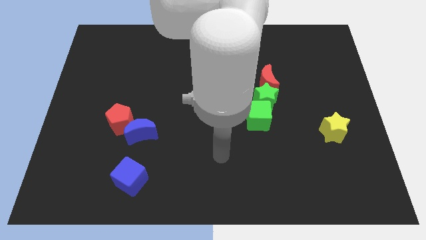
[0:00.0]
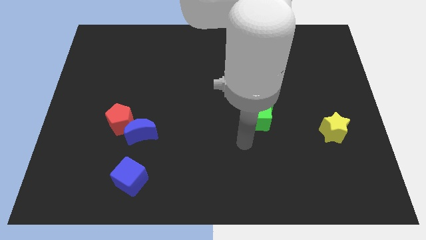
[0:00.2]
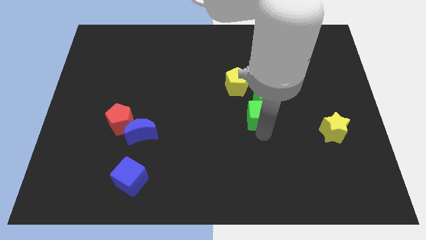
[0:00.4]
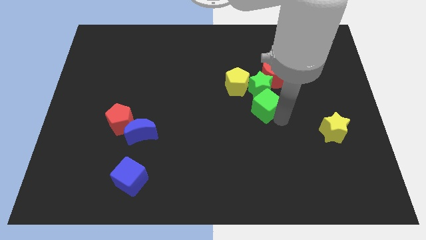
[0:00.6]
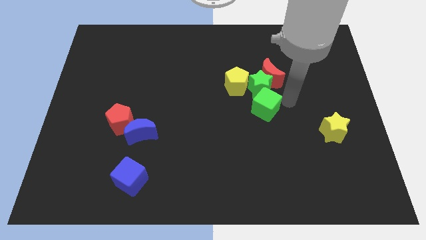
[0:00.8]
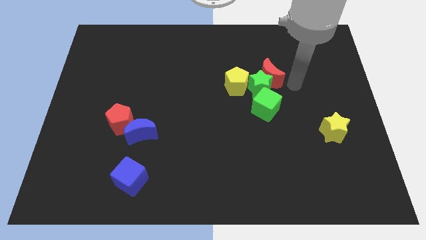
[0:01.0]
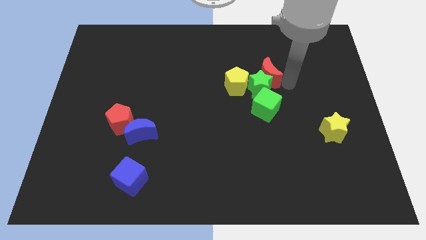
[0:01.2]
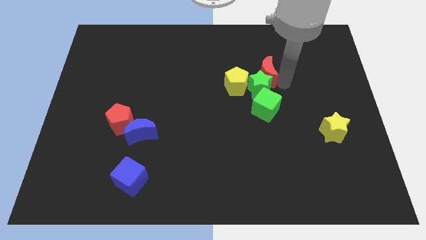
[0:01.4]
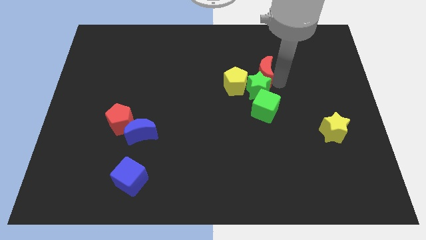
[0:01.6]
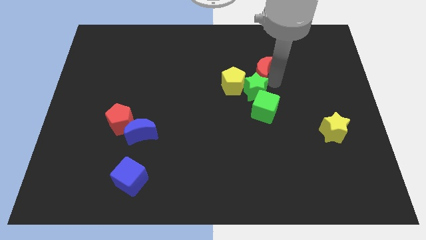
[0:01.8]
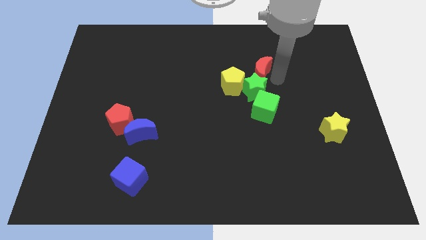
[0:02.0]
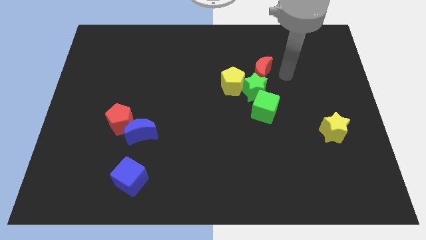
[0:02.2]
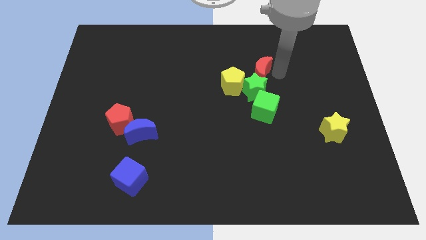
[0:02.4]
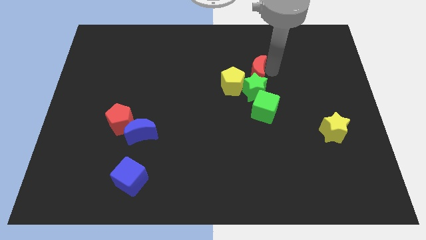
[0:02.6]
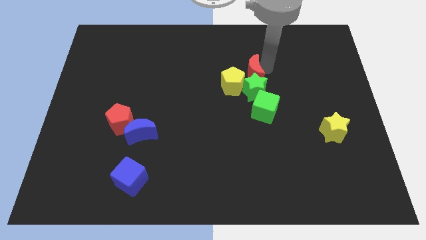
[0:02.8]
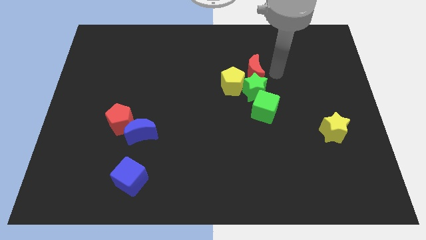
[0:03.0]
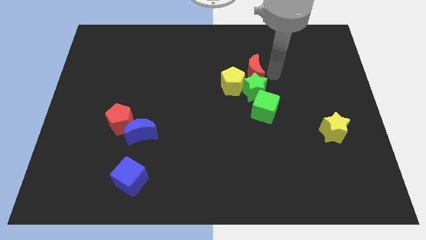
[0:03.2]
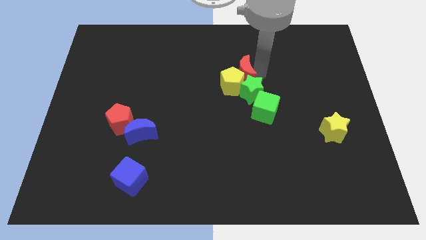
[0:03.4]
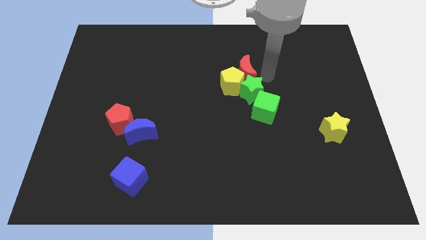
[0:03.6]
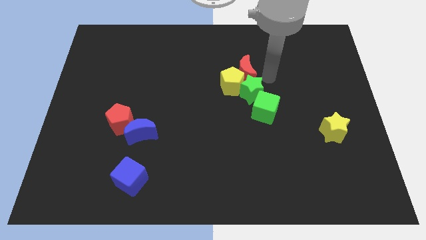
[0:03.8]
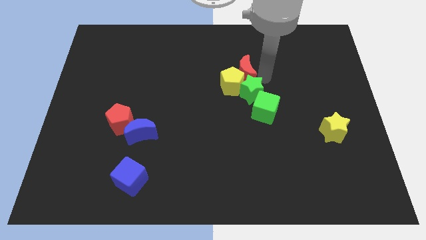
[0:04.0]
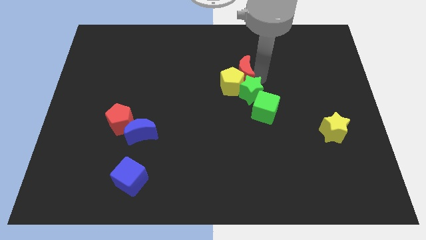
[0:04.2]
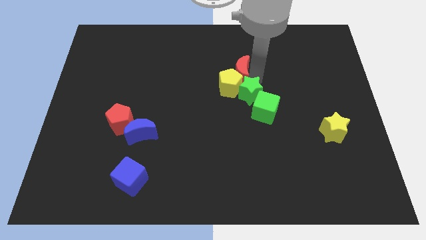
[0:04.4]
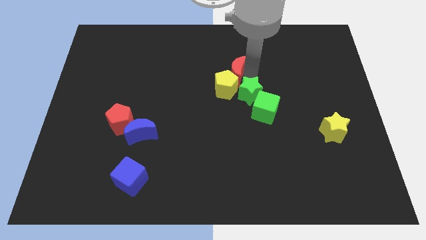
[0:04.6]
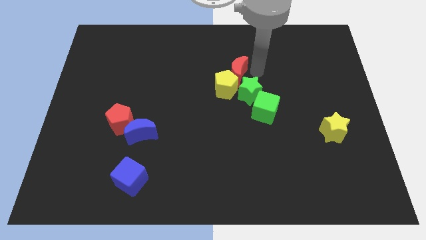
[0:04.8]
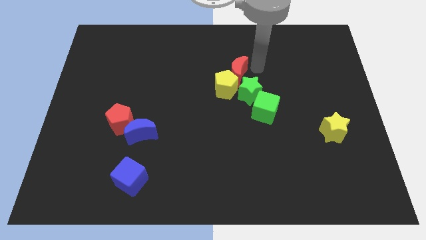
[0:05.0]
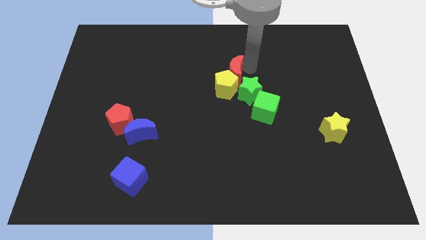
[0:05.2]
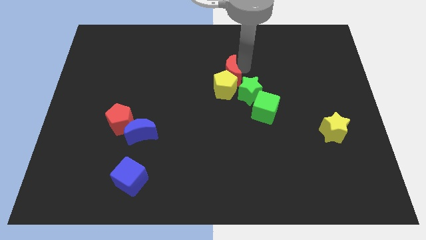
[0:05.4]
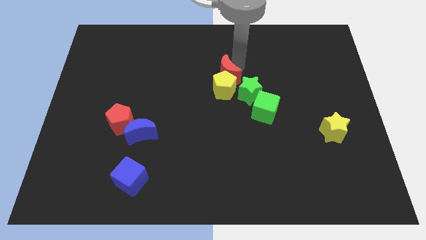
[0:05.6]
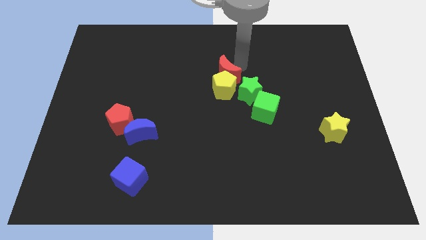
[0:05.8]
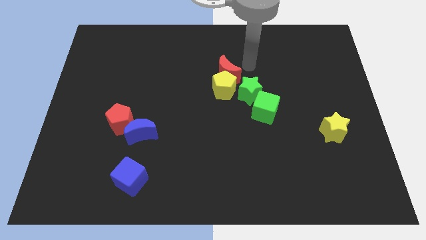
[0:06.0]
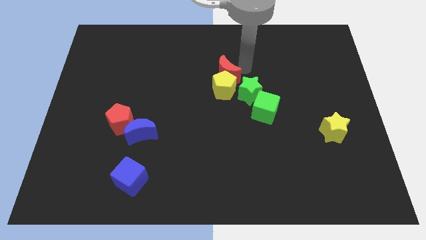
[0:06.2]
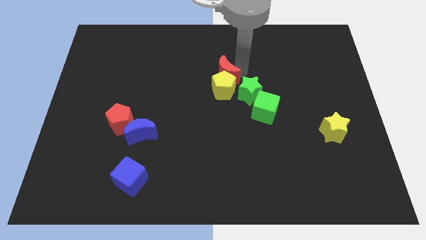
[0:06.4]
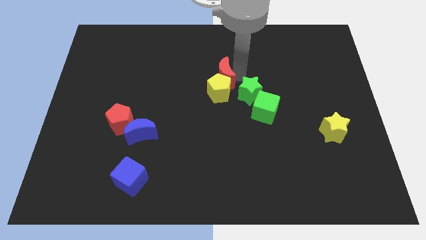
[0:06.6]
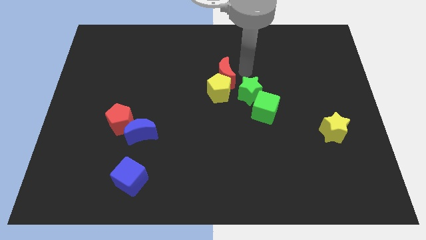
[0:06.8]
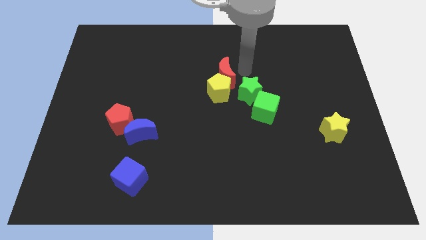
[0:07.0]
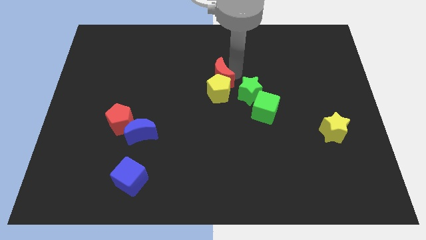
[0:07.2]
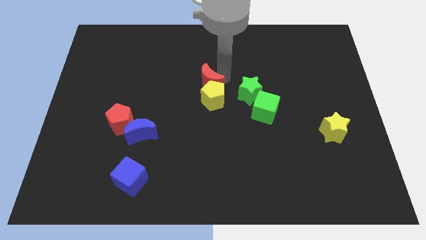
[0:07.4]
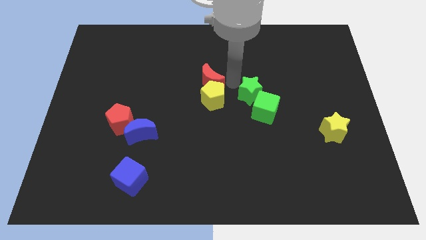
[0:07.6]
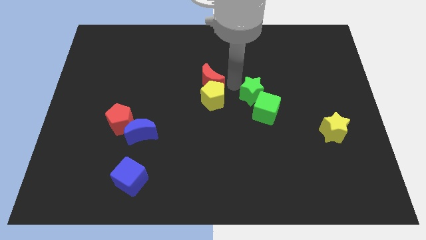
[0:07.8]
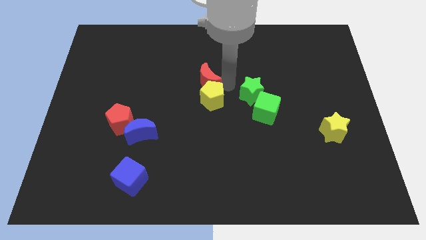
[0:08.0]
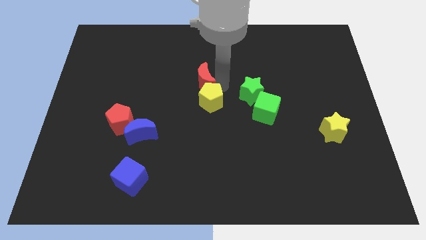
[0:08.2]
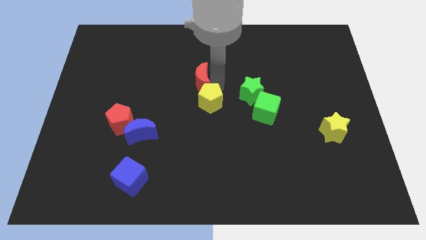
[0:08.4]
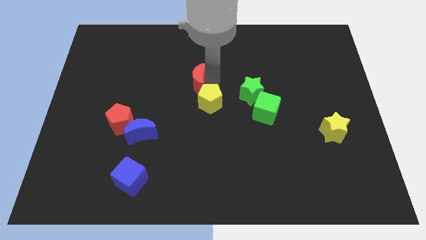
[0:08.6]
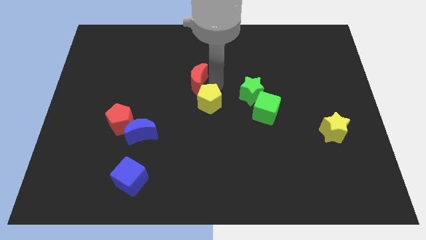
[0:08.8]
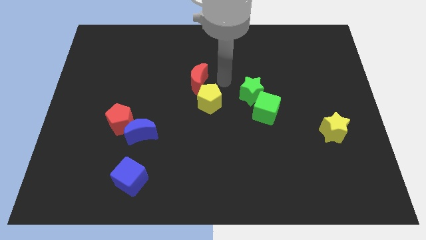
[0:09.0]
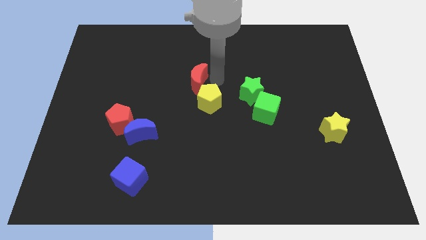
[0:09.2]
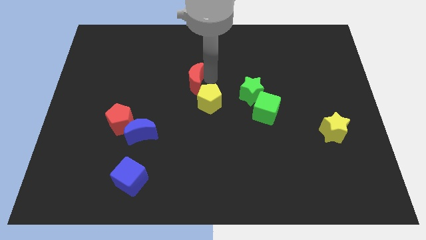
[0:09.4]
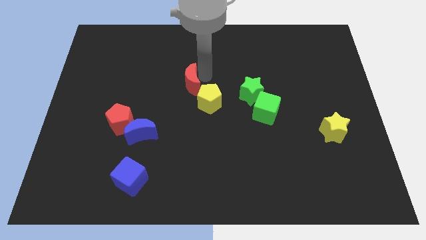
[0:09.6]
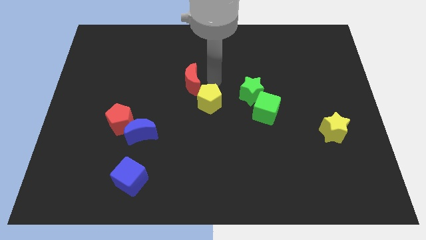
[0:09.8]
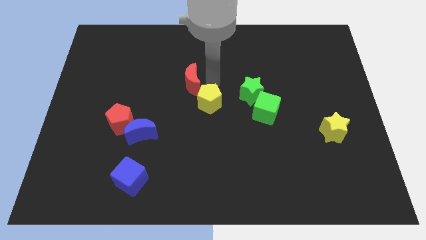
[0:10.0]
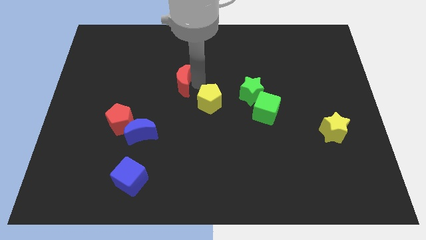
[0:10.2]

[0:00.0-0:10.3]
move the red moon to the left

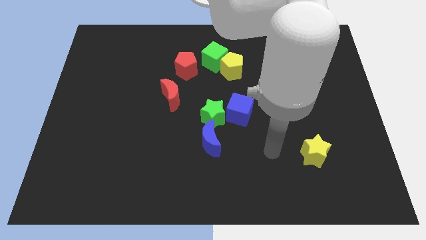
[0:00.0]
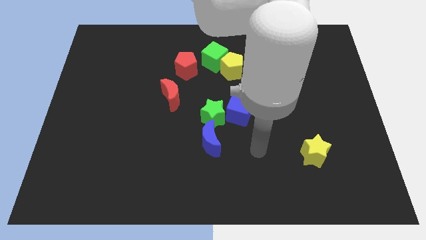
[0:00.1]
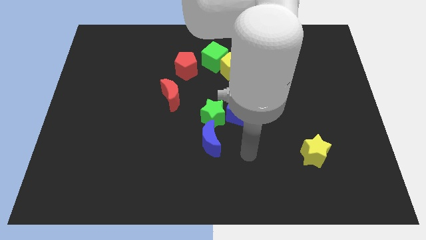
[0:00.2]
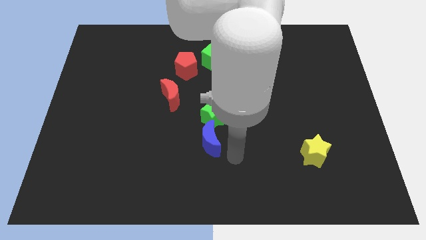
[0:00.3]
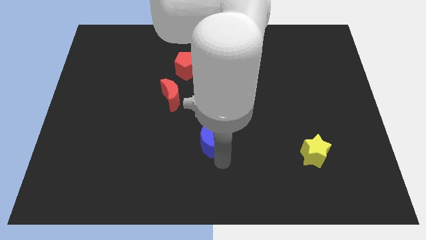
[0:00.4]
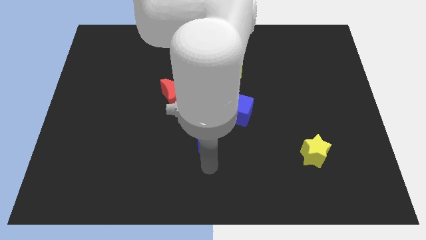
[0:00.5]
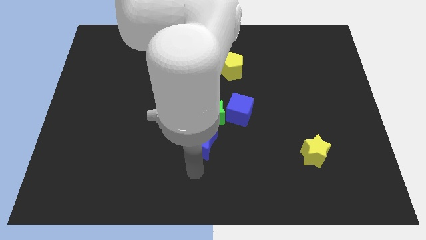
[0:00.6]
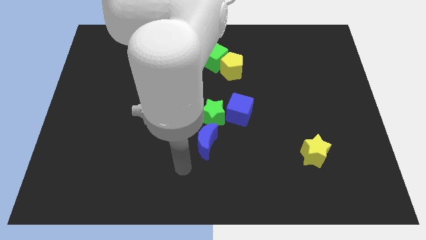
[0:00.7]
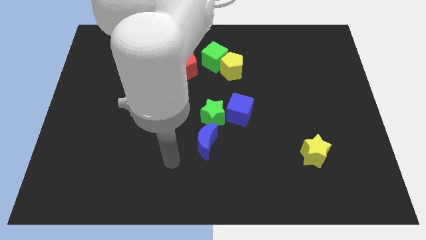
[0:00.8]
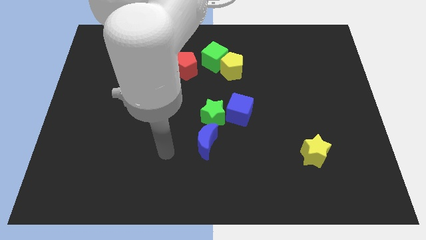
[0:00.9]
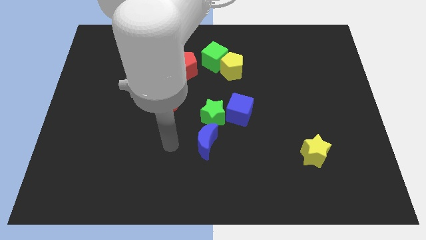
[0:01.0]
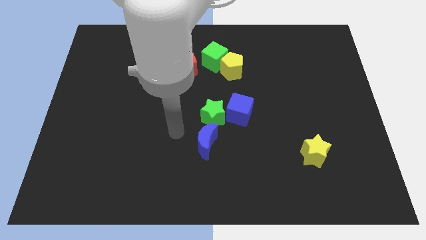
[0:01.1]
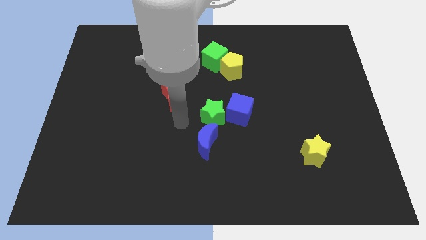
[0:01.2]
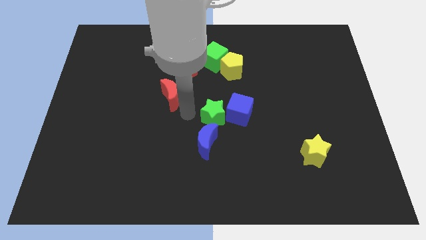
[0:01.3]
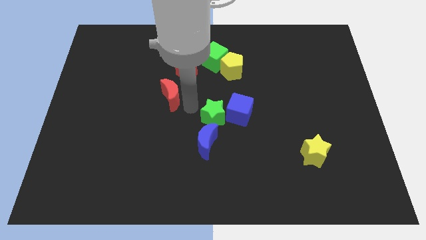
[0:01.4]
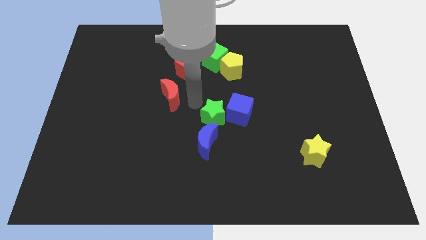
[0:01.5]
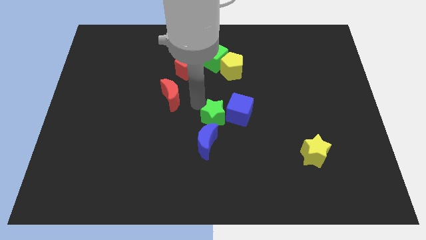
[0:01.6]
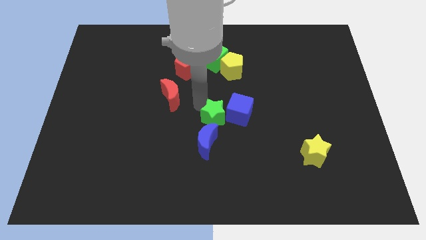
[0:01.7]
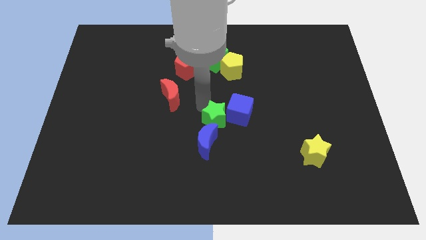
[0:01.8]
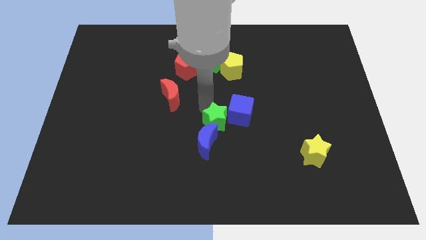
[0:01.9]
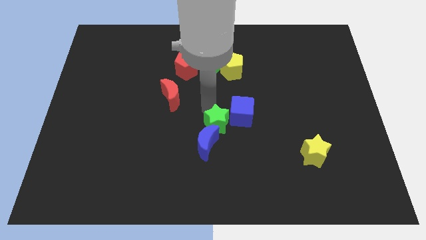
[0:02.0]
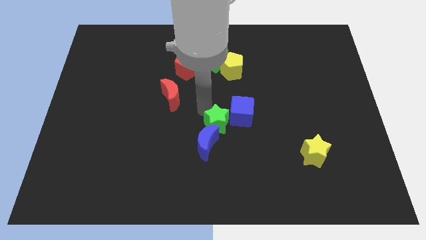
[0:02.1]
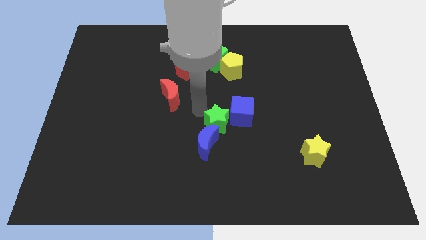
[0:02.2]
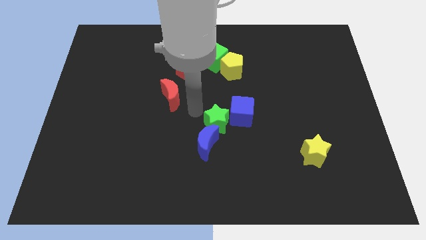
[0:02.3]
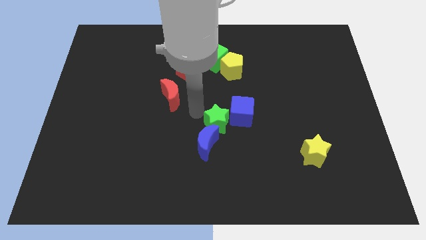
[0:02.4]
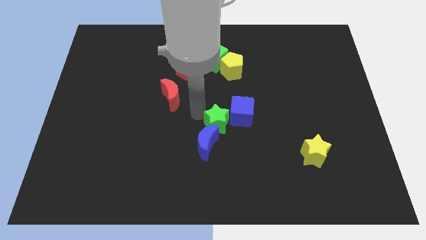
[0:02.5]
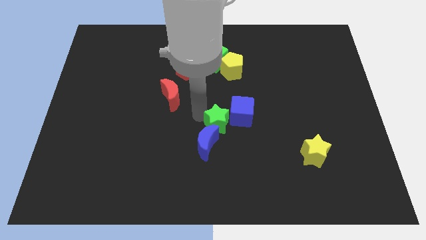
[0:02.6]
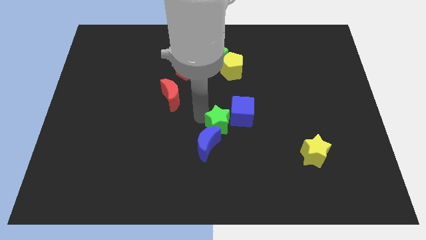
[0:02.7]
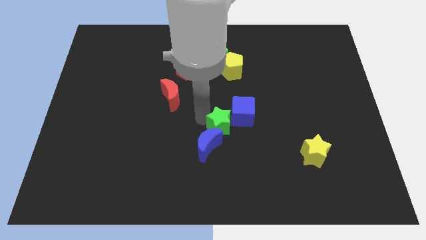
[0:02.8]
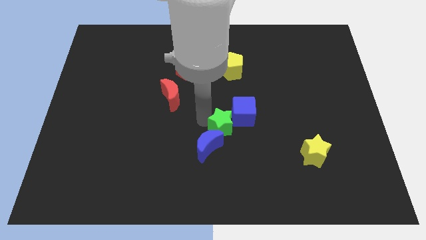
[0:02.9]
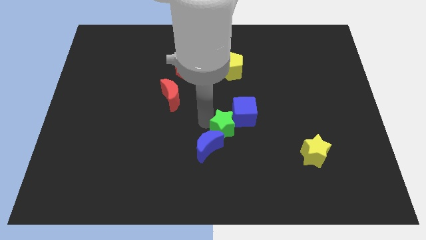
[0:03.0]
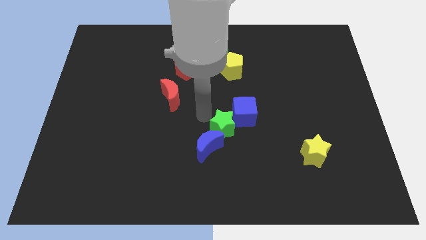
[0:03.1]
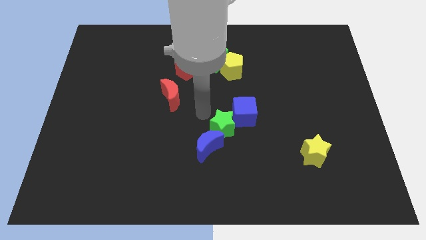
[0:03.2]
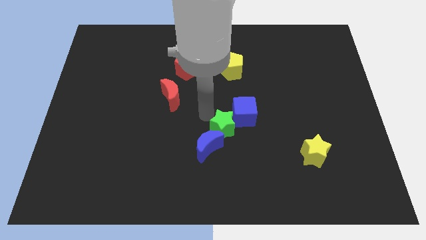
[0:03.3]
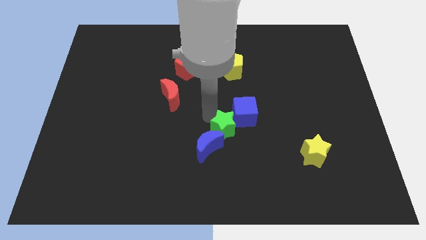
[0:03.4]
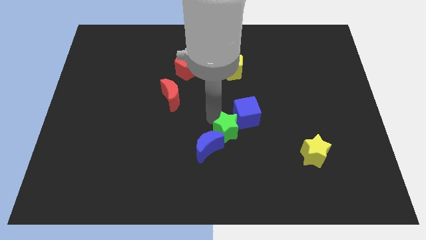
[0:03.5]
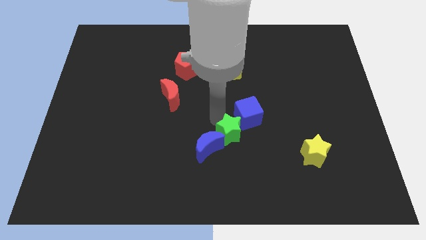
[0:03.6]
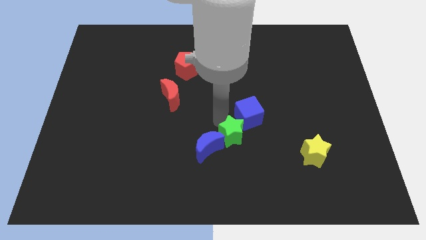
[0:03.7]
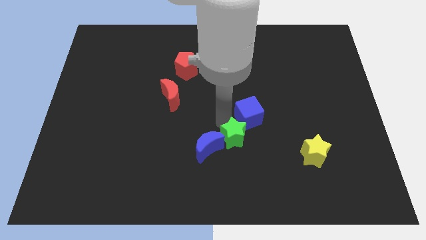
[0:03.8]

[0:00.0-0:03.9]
push the green star down and right somewhat
